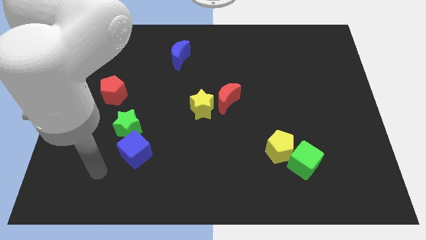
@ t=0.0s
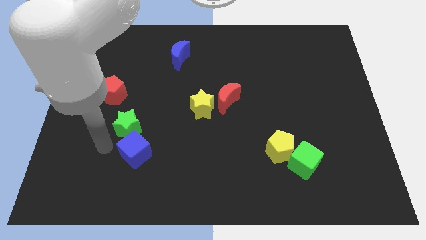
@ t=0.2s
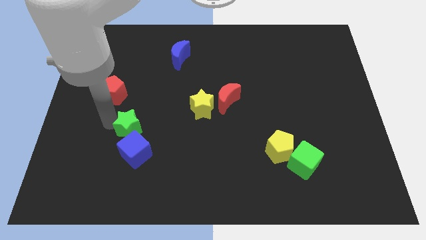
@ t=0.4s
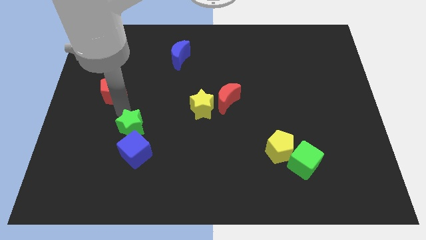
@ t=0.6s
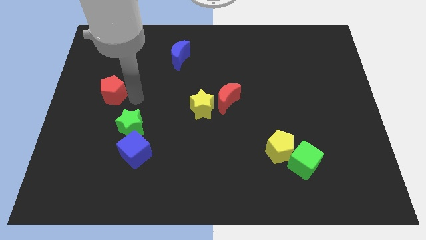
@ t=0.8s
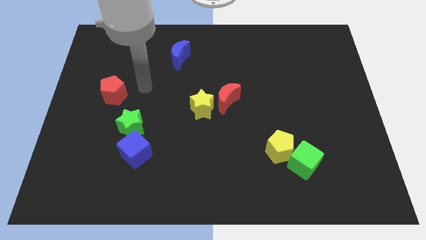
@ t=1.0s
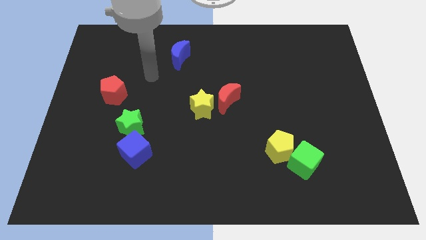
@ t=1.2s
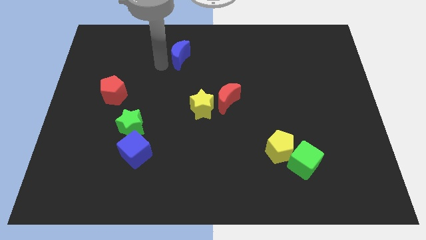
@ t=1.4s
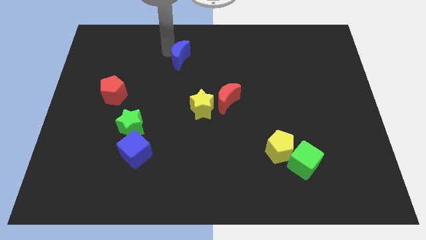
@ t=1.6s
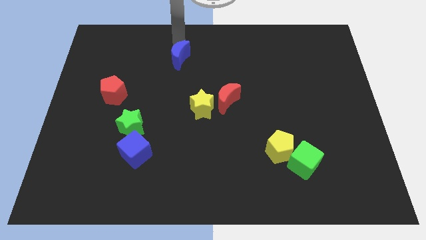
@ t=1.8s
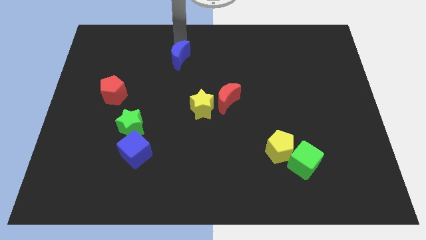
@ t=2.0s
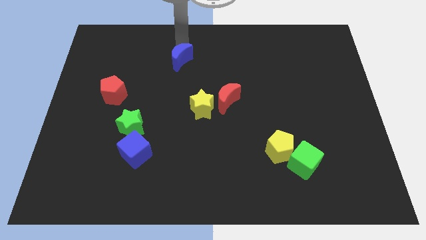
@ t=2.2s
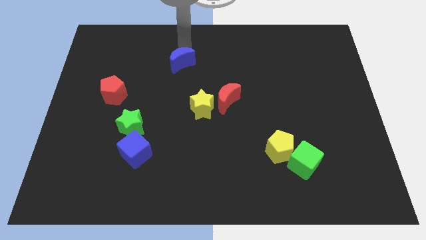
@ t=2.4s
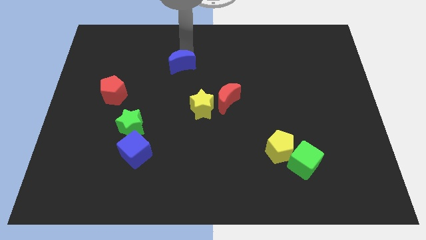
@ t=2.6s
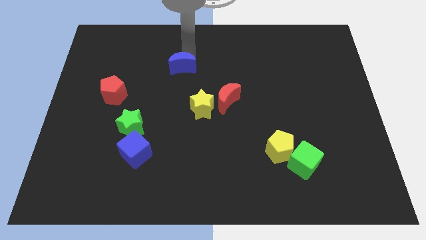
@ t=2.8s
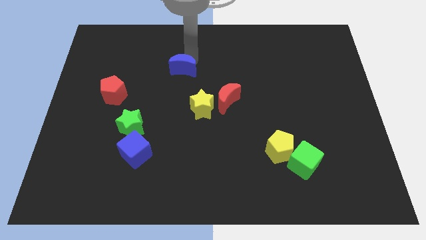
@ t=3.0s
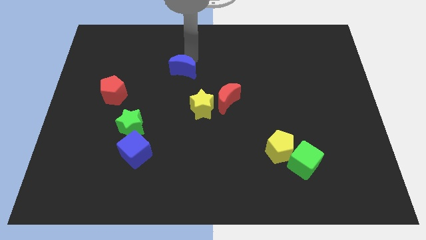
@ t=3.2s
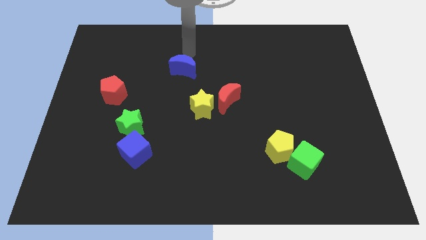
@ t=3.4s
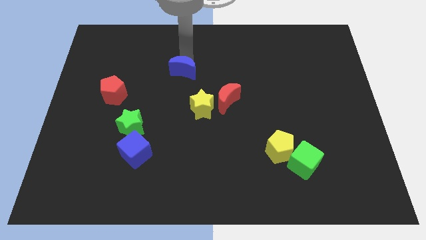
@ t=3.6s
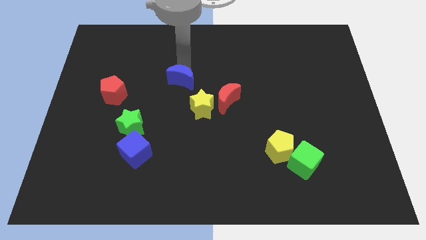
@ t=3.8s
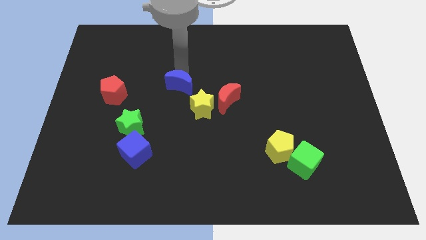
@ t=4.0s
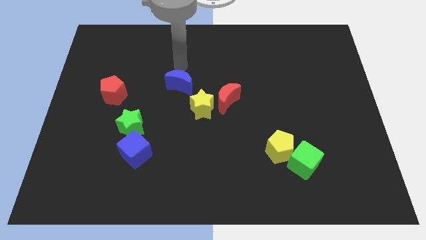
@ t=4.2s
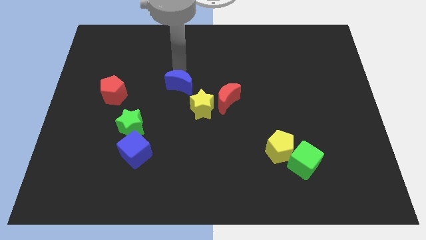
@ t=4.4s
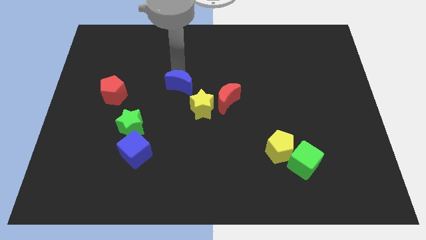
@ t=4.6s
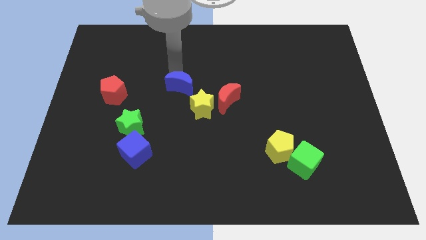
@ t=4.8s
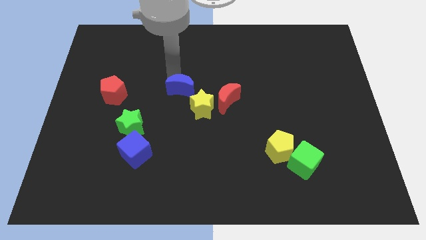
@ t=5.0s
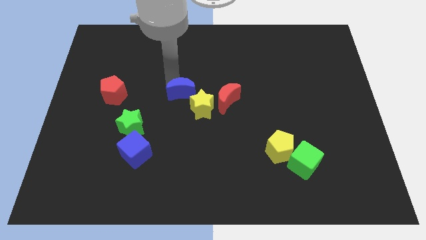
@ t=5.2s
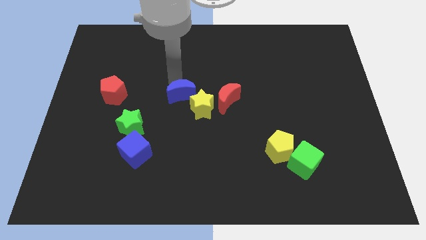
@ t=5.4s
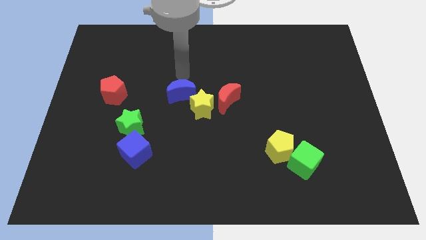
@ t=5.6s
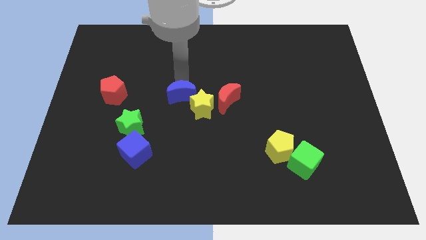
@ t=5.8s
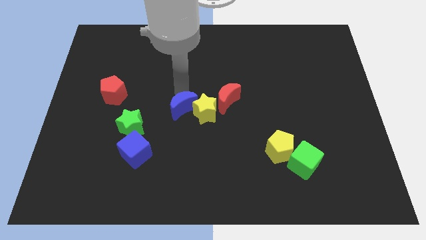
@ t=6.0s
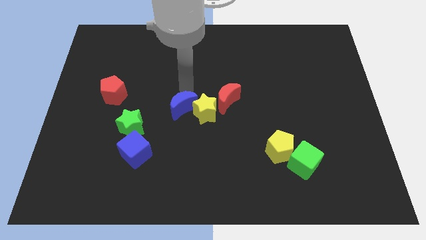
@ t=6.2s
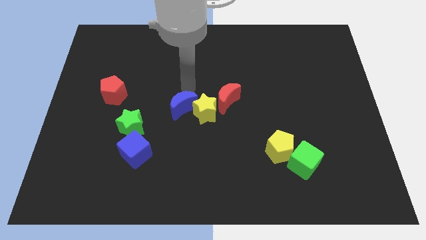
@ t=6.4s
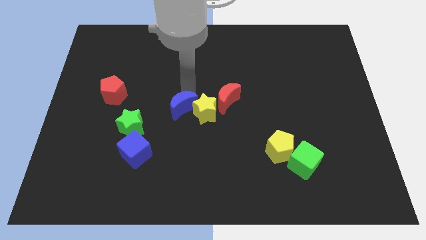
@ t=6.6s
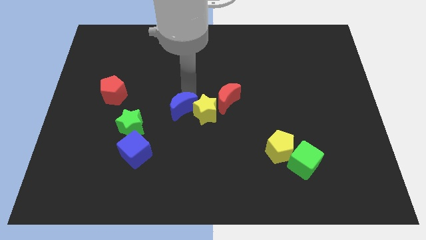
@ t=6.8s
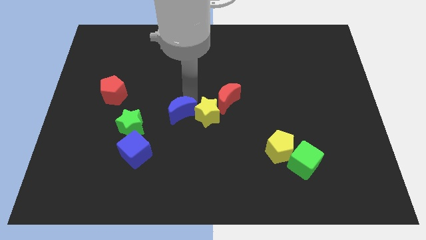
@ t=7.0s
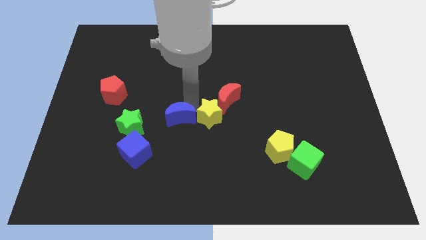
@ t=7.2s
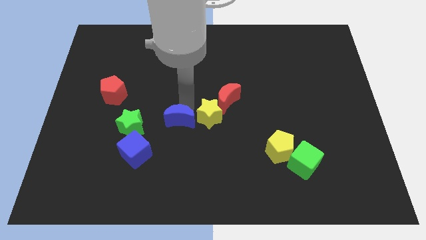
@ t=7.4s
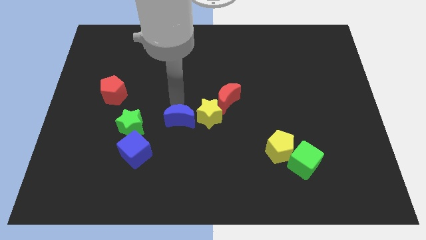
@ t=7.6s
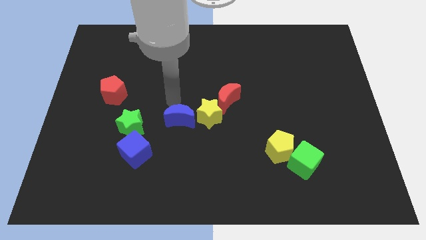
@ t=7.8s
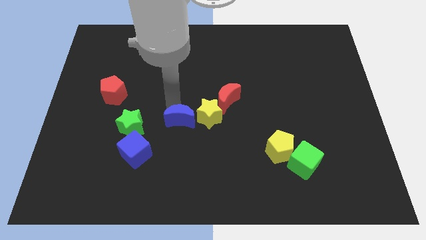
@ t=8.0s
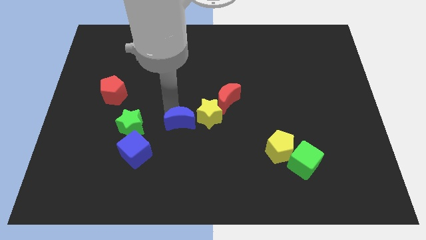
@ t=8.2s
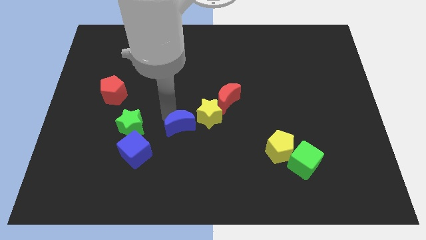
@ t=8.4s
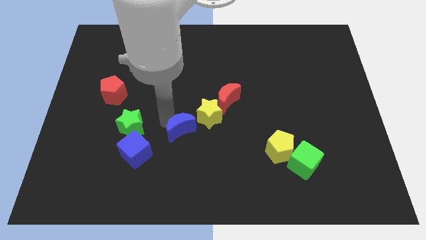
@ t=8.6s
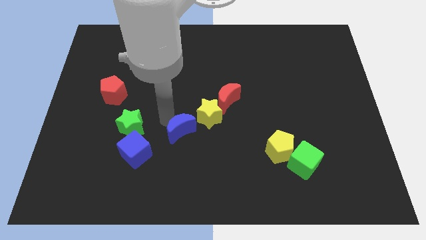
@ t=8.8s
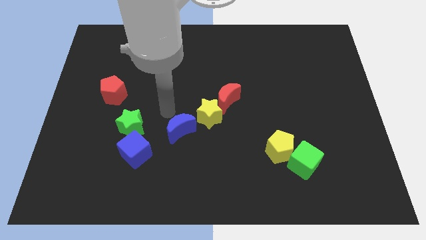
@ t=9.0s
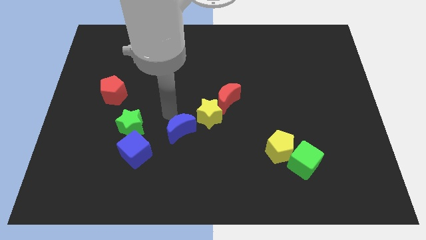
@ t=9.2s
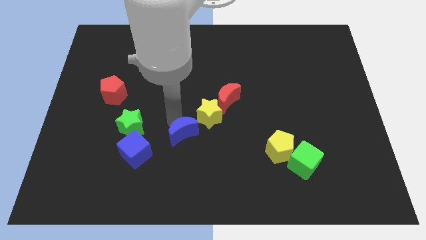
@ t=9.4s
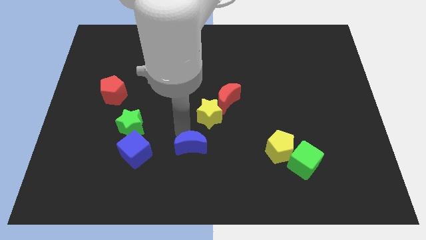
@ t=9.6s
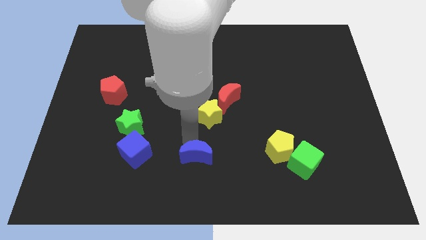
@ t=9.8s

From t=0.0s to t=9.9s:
push the blue moon to the bottom
